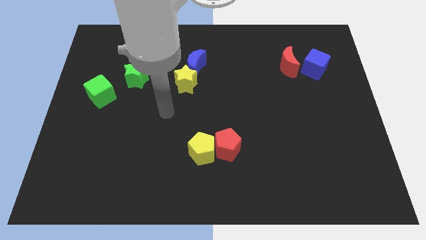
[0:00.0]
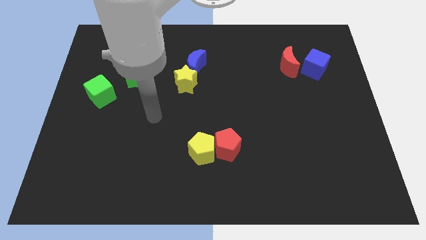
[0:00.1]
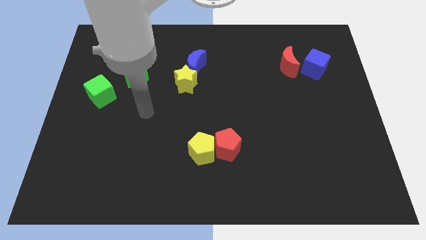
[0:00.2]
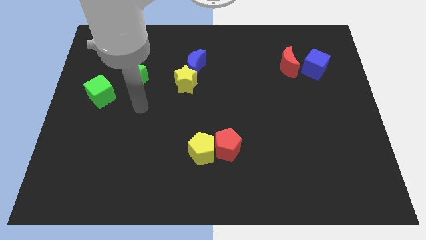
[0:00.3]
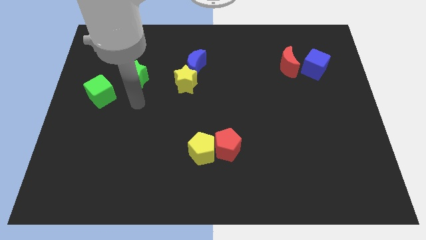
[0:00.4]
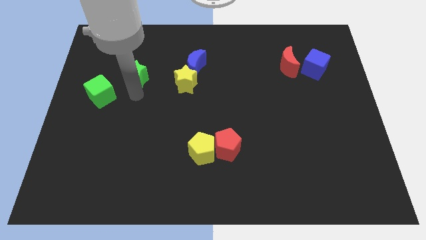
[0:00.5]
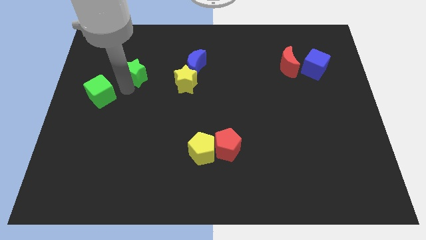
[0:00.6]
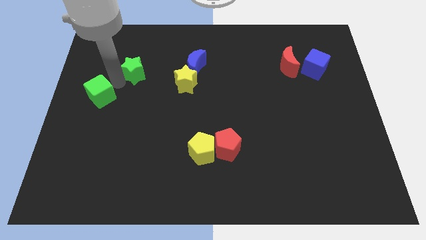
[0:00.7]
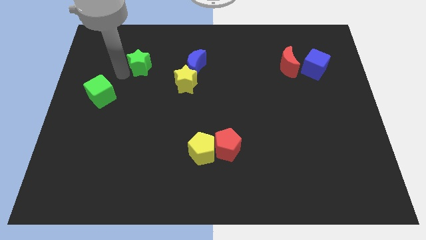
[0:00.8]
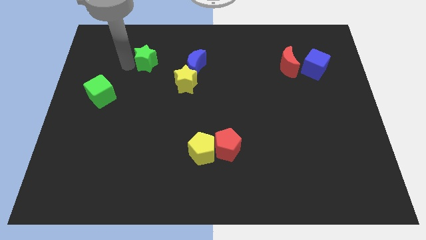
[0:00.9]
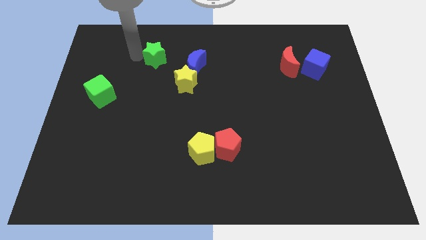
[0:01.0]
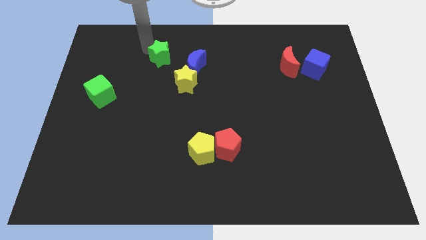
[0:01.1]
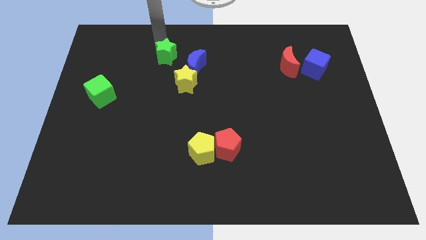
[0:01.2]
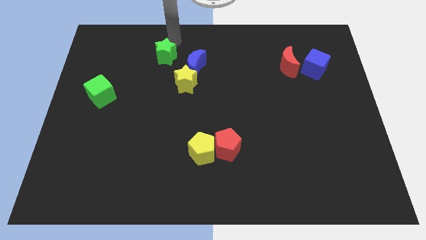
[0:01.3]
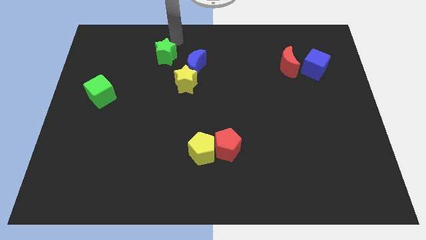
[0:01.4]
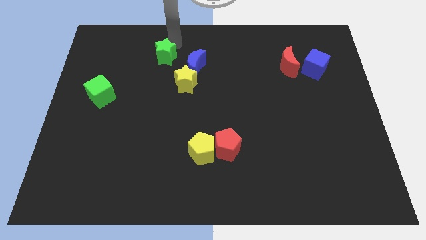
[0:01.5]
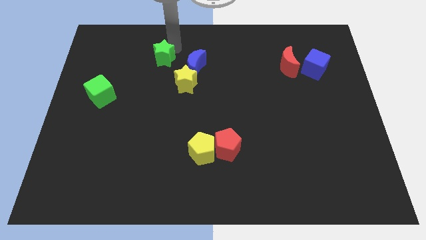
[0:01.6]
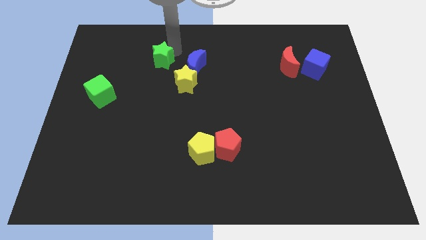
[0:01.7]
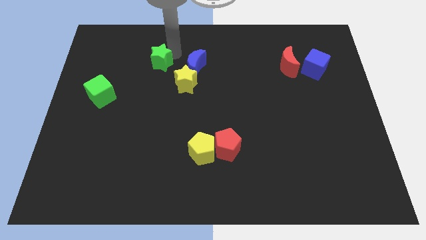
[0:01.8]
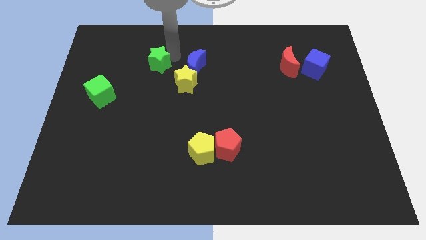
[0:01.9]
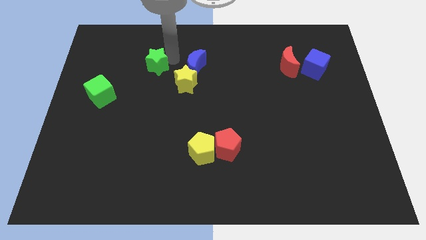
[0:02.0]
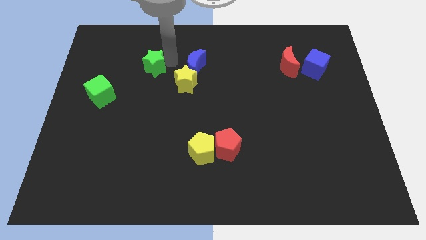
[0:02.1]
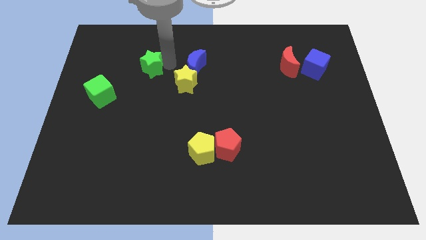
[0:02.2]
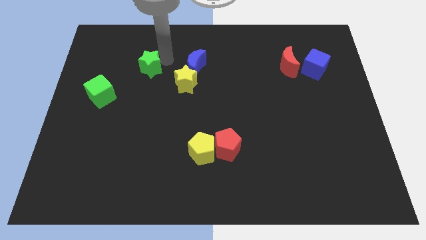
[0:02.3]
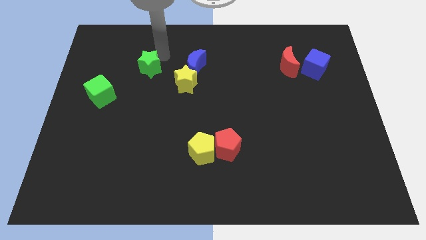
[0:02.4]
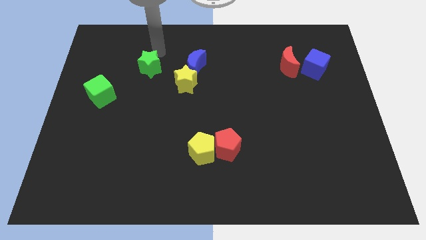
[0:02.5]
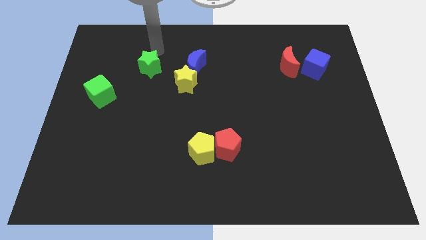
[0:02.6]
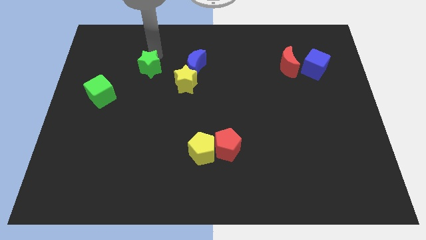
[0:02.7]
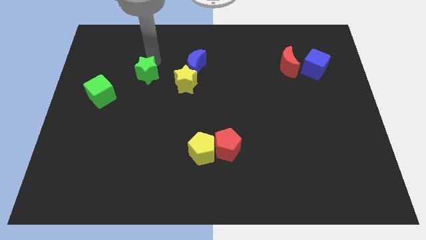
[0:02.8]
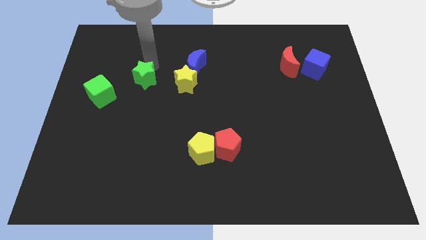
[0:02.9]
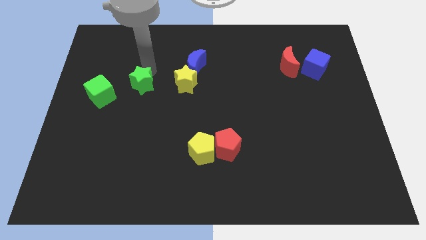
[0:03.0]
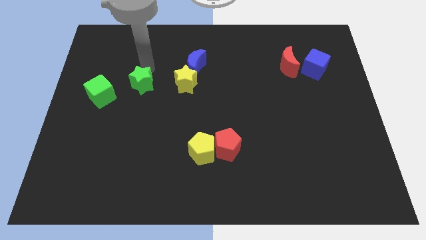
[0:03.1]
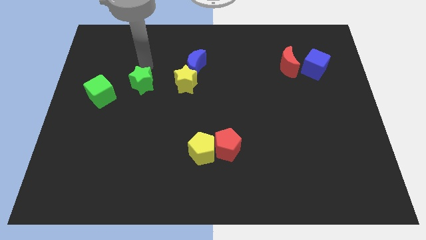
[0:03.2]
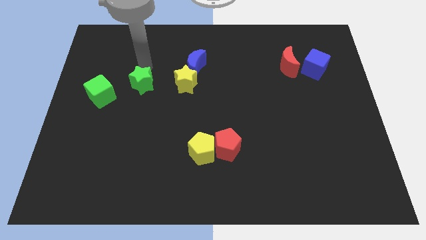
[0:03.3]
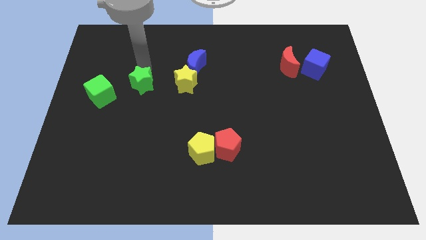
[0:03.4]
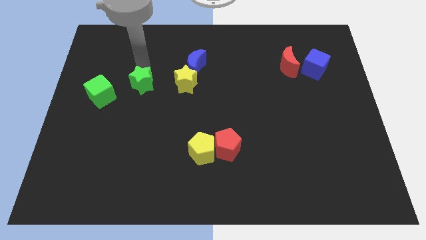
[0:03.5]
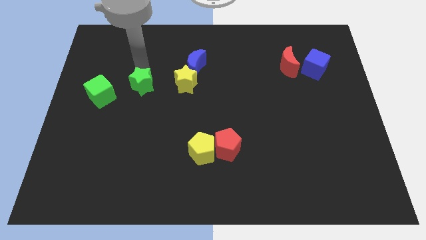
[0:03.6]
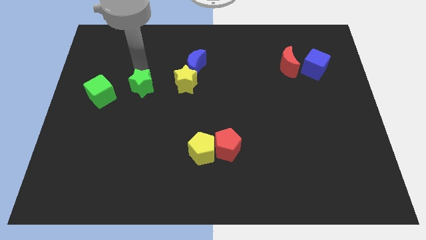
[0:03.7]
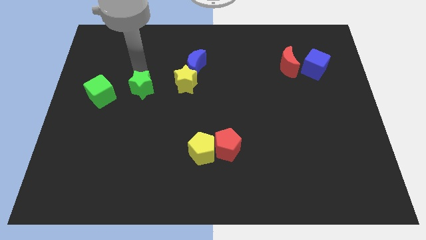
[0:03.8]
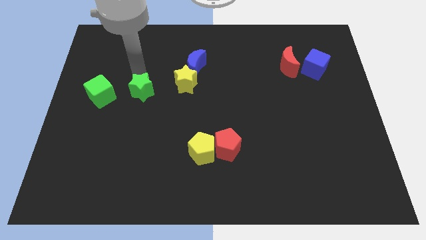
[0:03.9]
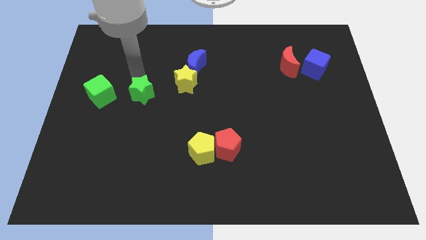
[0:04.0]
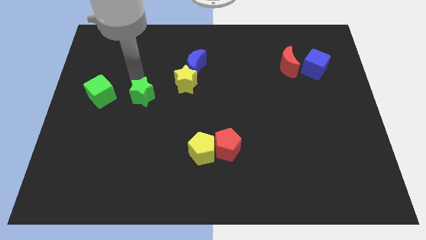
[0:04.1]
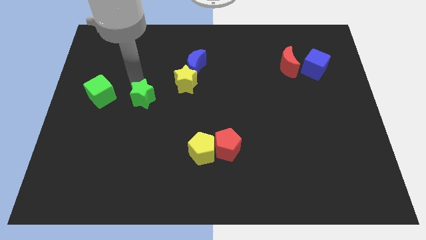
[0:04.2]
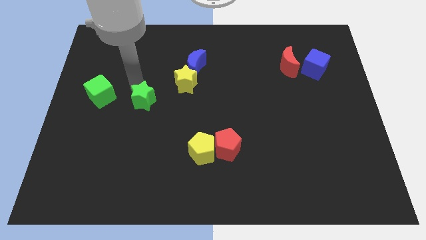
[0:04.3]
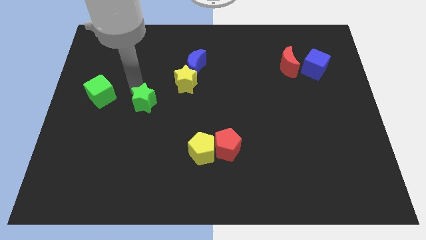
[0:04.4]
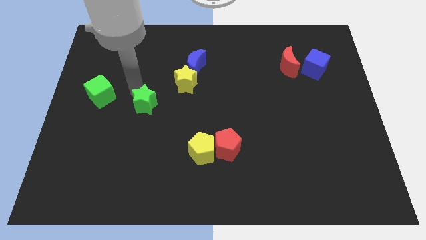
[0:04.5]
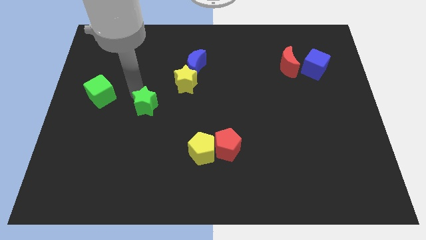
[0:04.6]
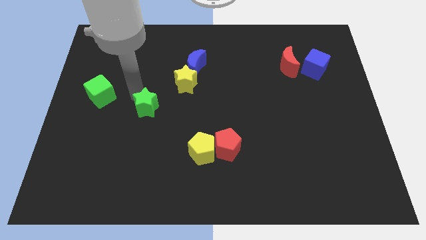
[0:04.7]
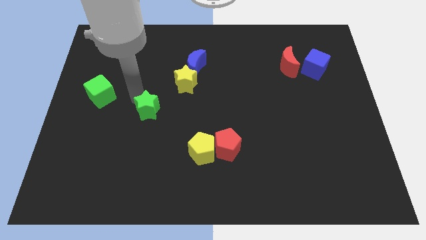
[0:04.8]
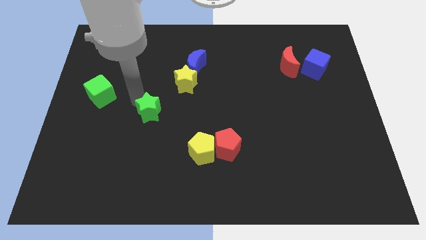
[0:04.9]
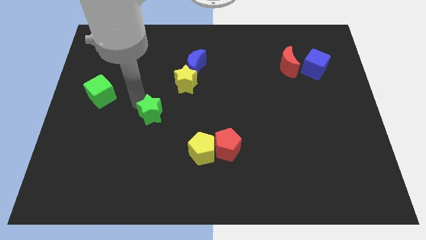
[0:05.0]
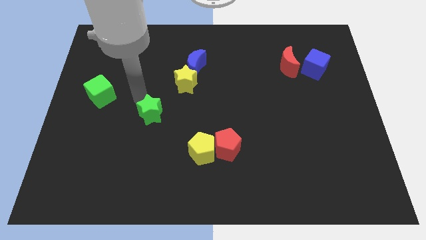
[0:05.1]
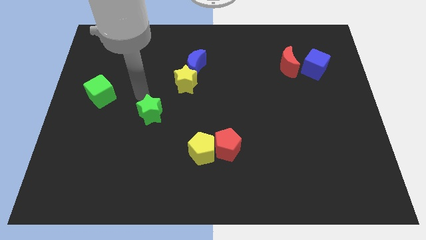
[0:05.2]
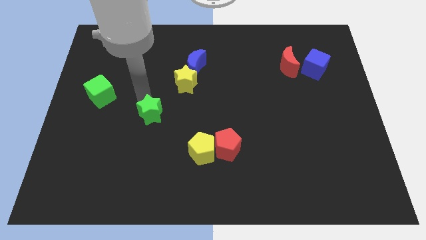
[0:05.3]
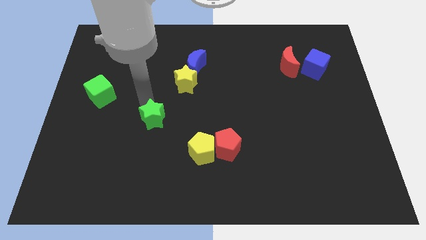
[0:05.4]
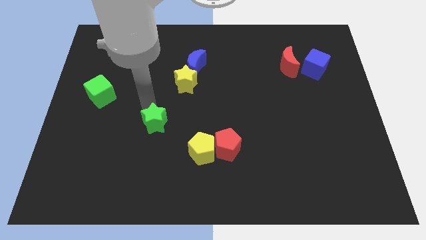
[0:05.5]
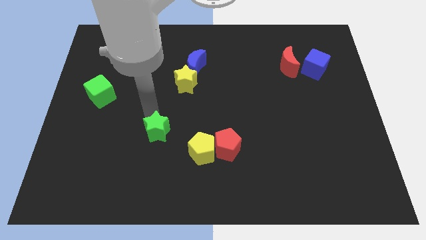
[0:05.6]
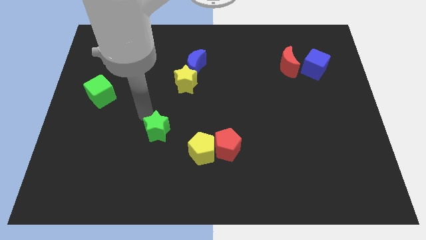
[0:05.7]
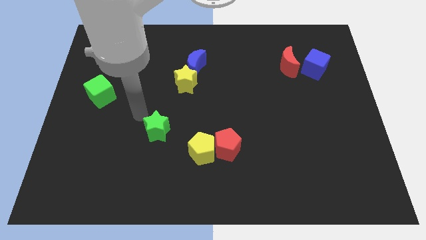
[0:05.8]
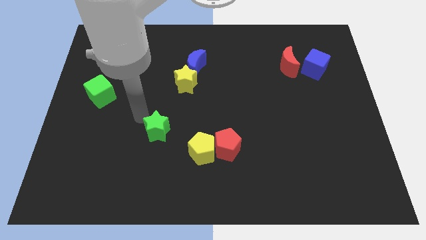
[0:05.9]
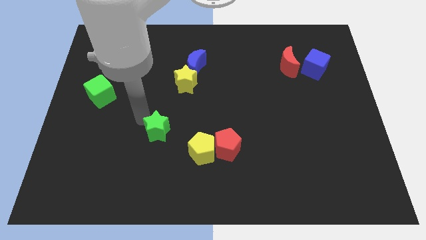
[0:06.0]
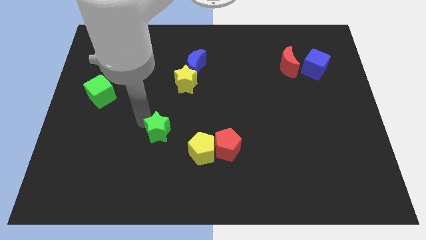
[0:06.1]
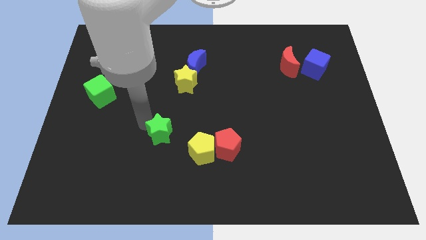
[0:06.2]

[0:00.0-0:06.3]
put the green star to the left of the red pentagon

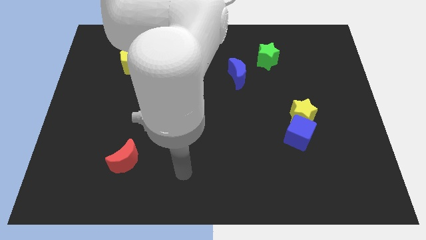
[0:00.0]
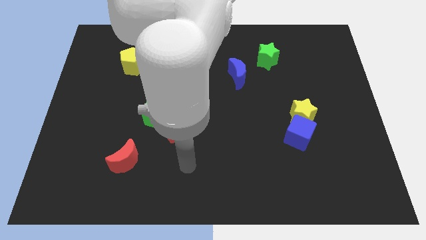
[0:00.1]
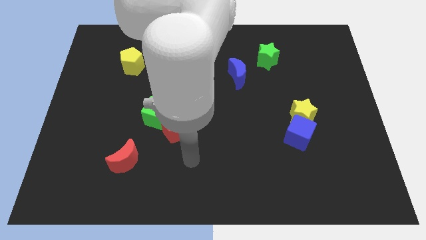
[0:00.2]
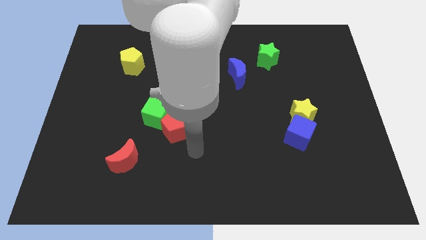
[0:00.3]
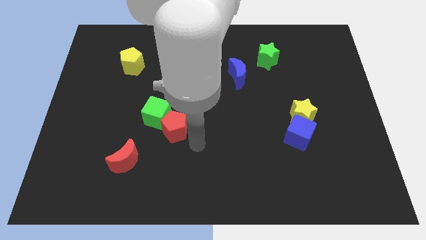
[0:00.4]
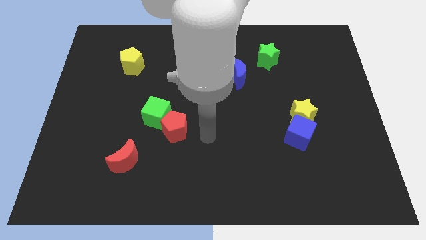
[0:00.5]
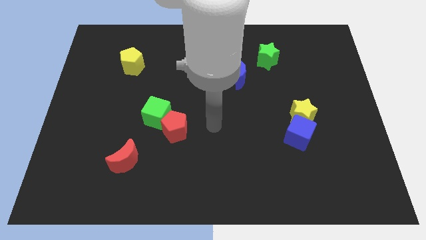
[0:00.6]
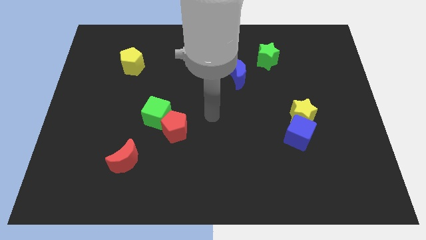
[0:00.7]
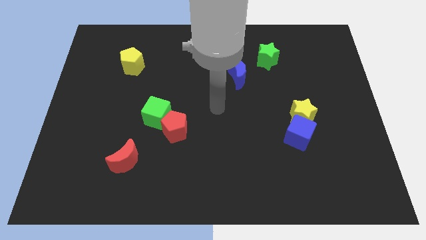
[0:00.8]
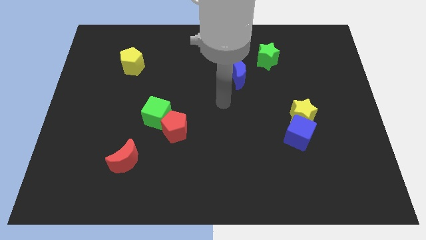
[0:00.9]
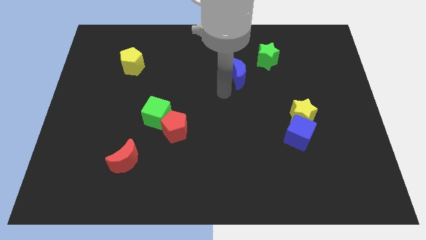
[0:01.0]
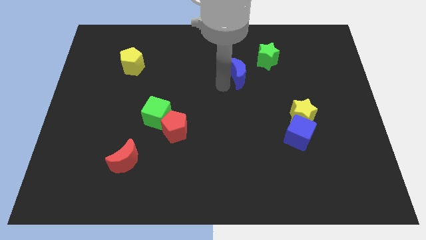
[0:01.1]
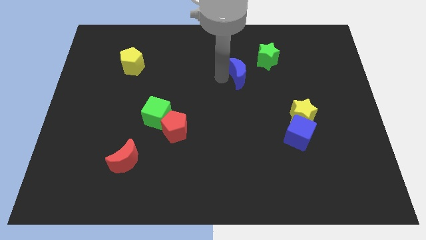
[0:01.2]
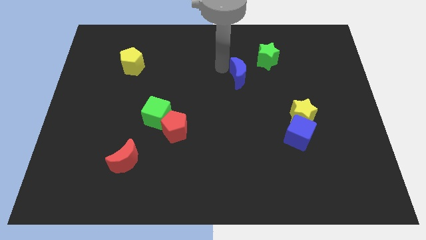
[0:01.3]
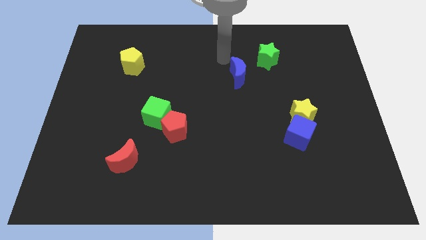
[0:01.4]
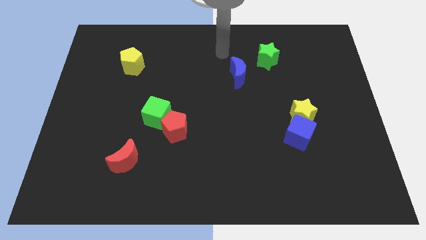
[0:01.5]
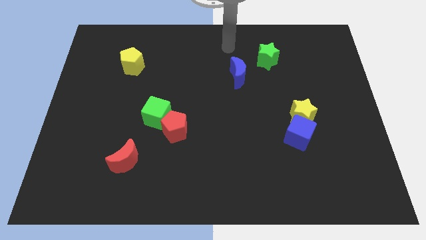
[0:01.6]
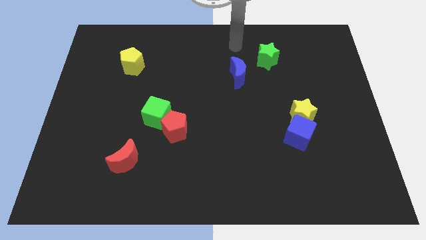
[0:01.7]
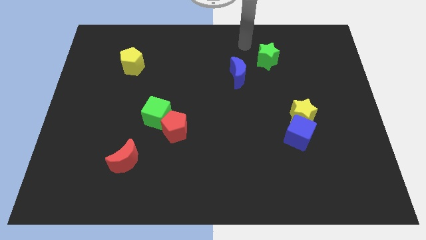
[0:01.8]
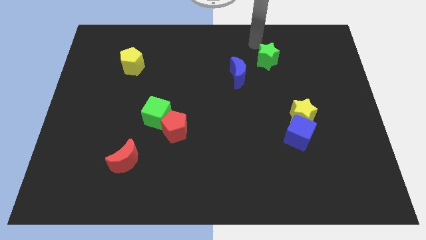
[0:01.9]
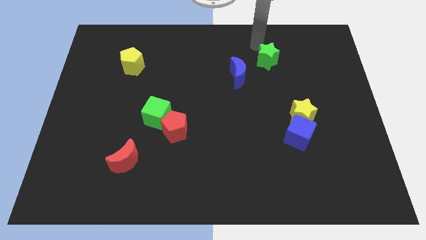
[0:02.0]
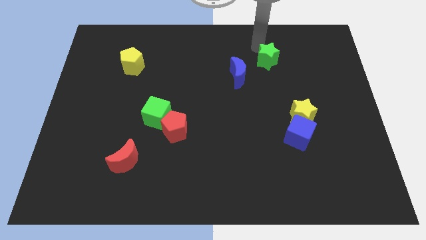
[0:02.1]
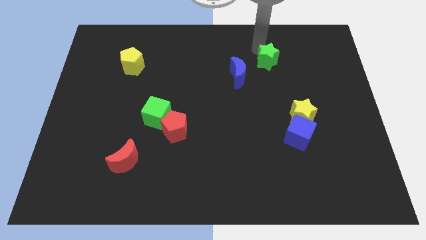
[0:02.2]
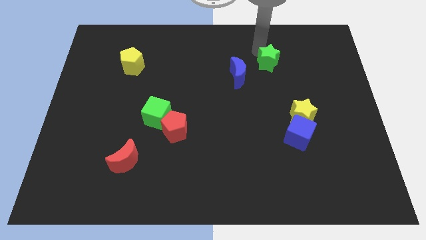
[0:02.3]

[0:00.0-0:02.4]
push the green star right of the blue moon
